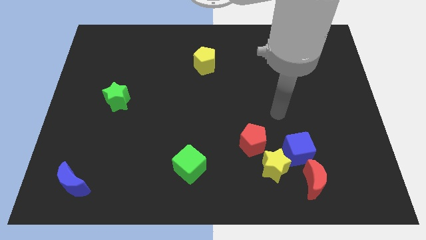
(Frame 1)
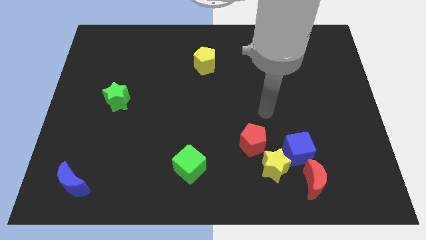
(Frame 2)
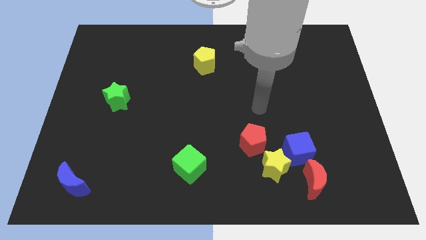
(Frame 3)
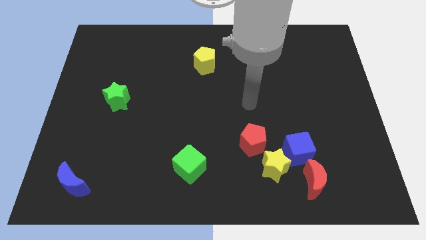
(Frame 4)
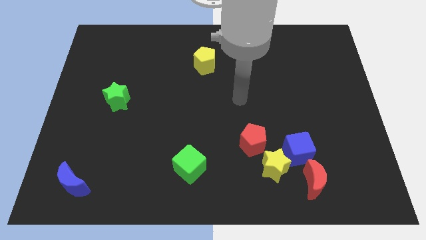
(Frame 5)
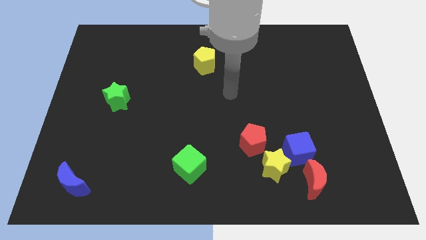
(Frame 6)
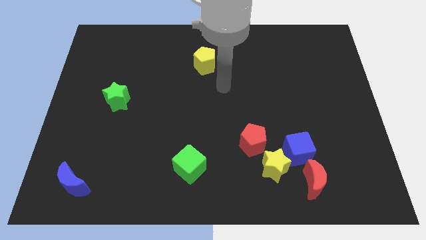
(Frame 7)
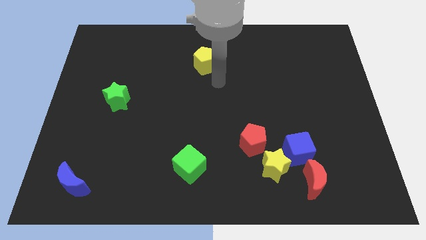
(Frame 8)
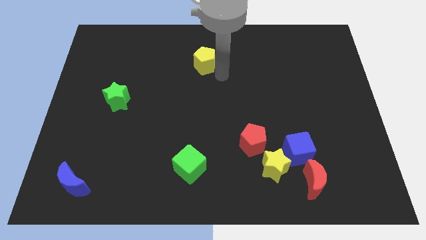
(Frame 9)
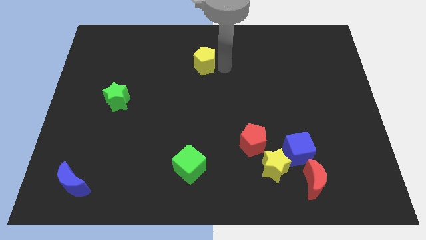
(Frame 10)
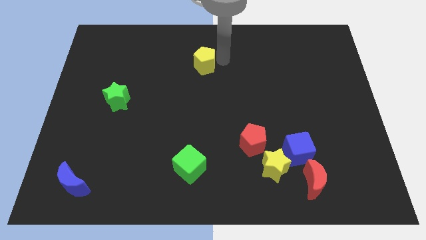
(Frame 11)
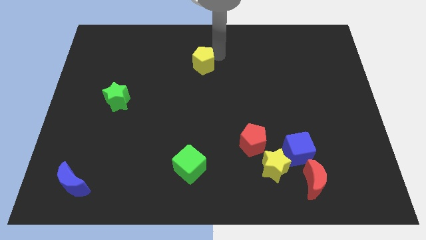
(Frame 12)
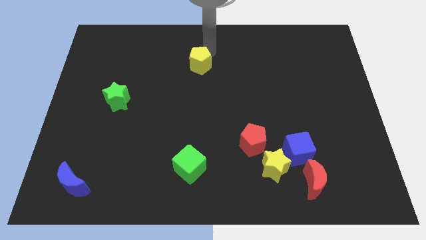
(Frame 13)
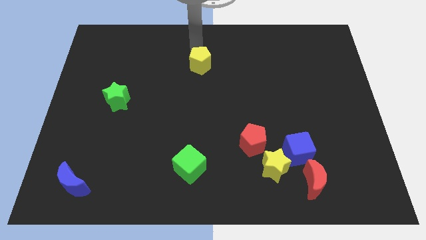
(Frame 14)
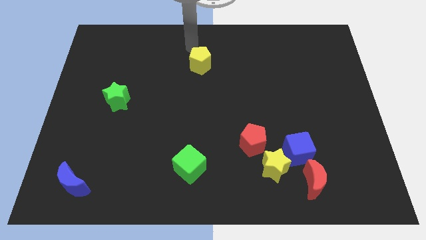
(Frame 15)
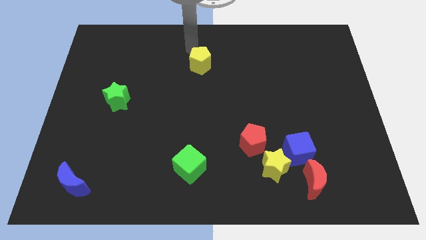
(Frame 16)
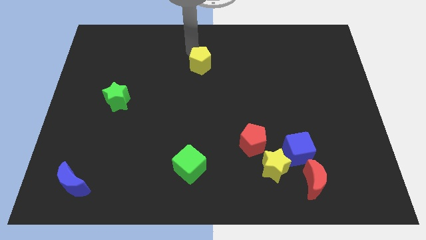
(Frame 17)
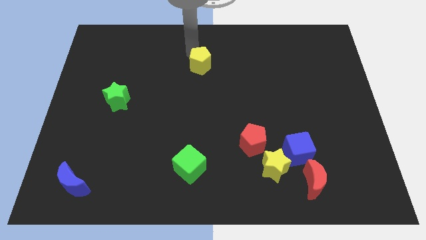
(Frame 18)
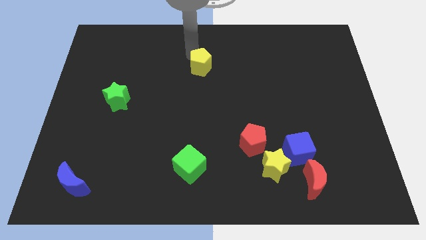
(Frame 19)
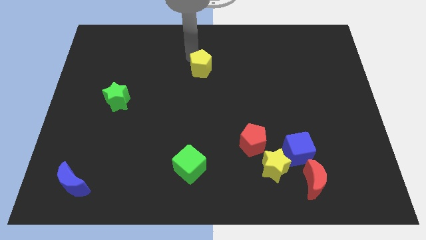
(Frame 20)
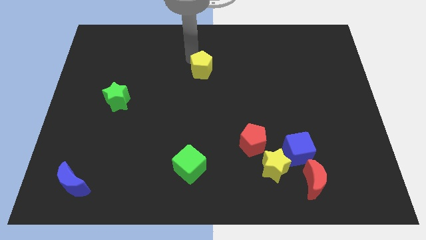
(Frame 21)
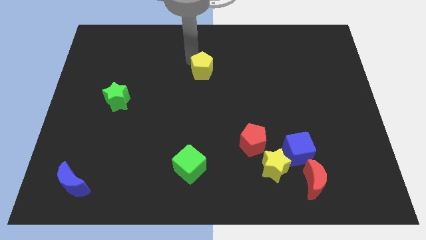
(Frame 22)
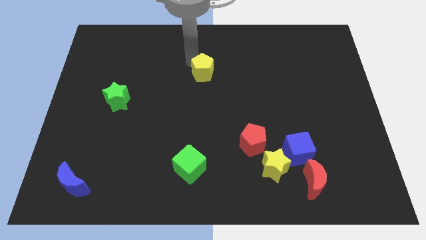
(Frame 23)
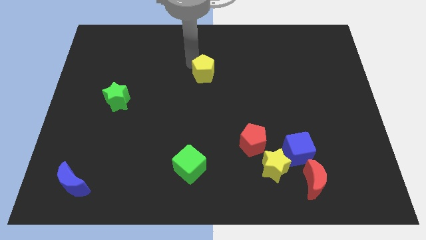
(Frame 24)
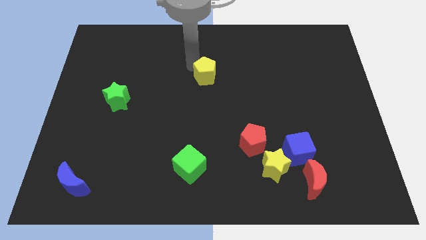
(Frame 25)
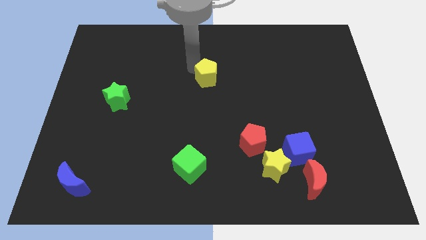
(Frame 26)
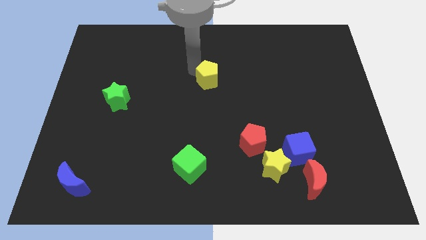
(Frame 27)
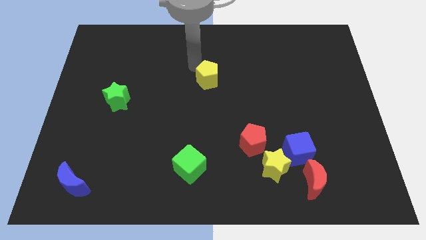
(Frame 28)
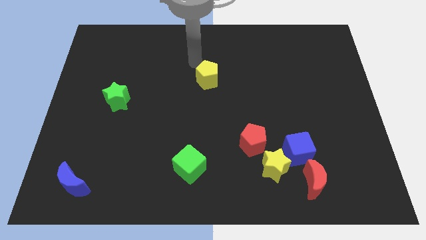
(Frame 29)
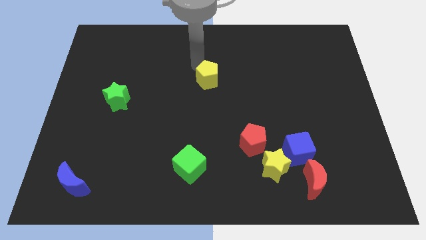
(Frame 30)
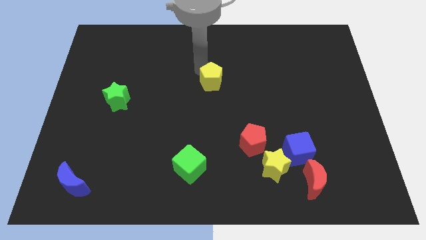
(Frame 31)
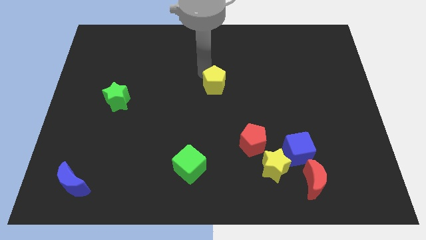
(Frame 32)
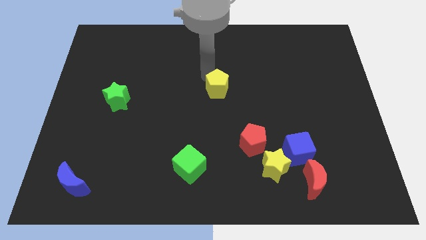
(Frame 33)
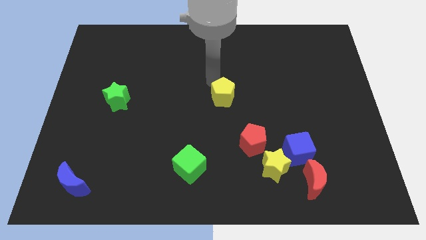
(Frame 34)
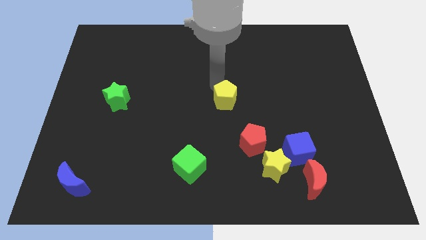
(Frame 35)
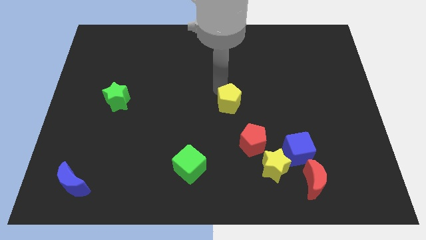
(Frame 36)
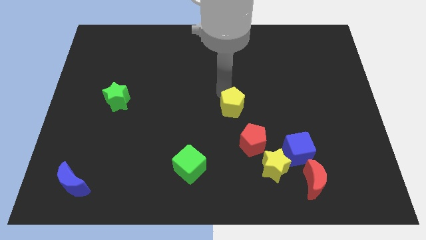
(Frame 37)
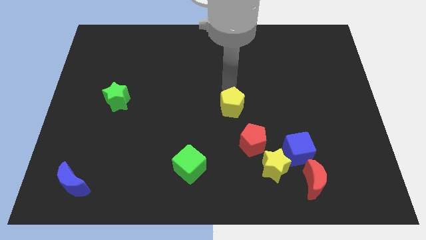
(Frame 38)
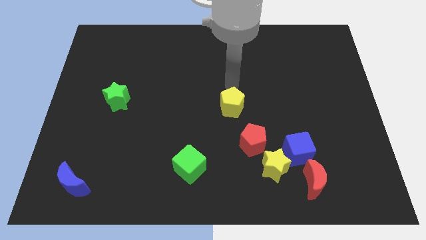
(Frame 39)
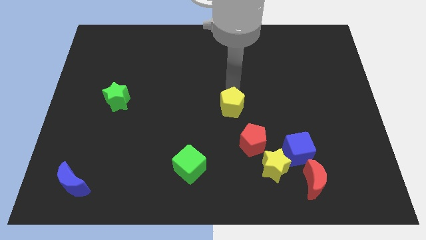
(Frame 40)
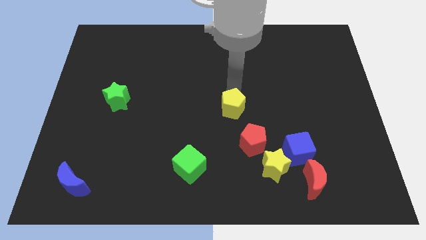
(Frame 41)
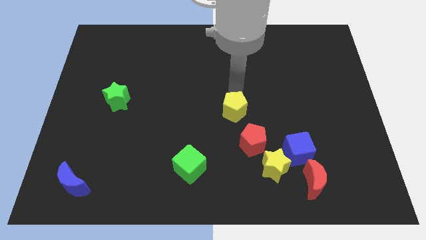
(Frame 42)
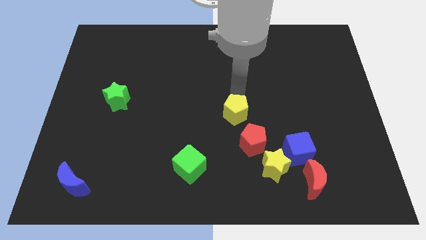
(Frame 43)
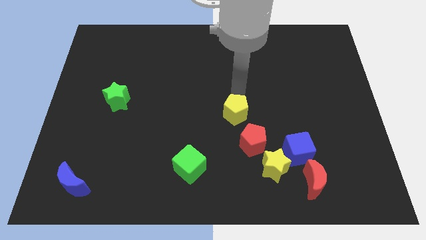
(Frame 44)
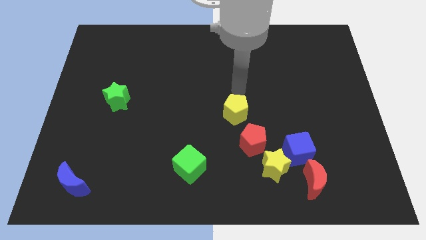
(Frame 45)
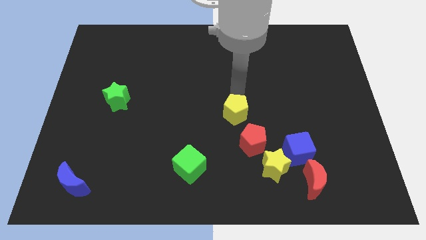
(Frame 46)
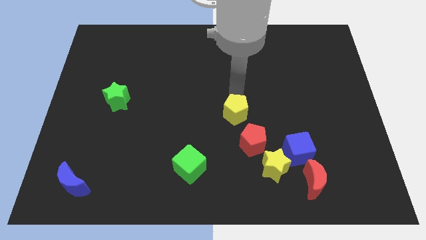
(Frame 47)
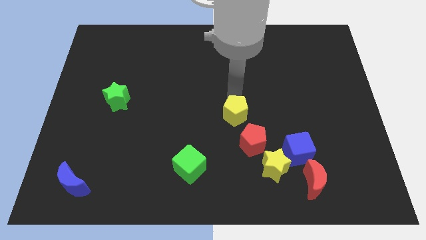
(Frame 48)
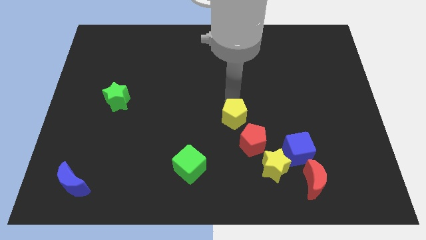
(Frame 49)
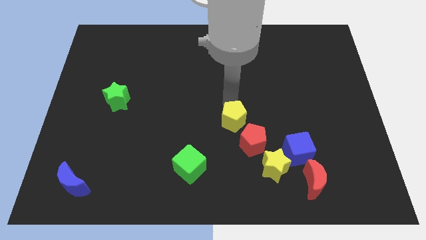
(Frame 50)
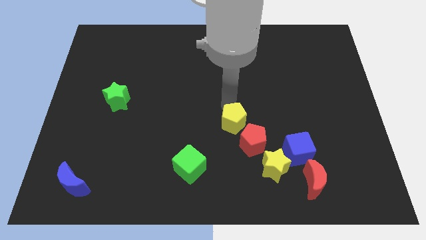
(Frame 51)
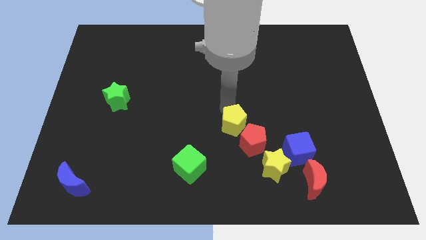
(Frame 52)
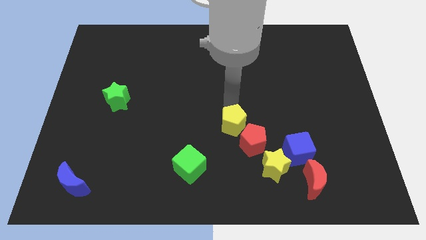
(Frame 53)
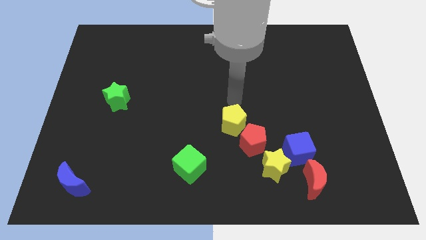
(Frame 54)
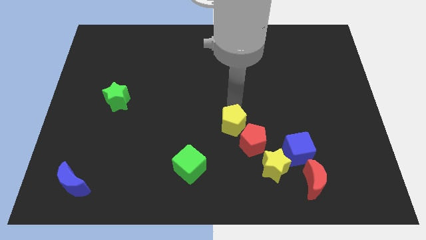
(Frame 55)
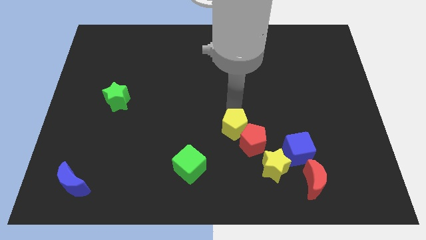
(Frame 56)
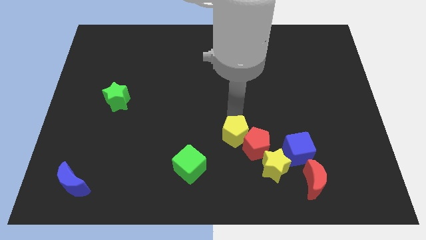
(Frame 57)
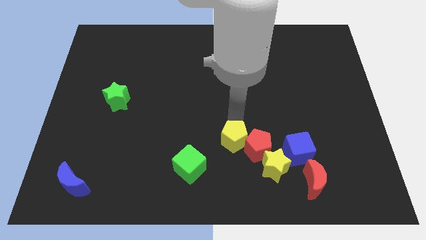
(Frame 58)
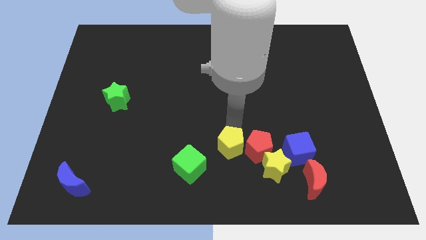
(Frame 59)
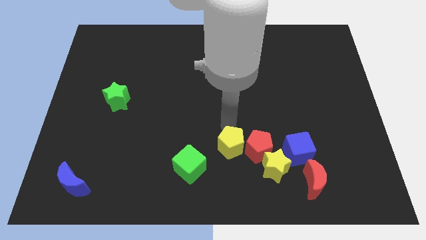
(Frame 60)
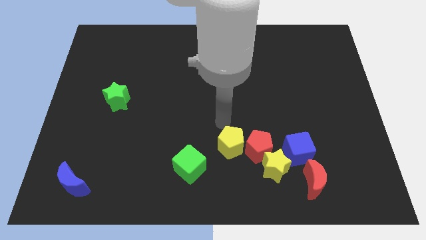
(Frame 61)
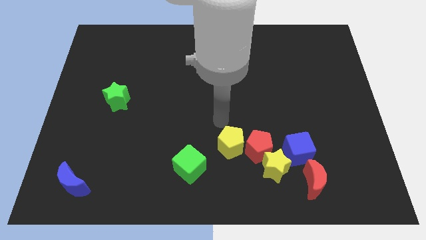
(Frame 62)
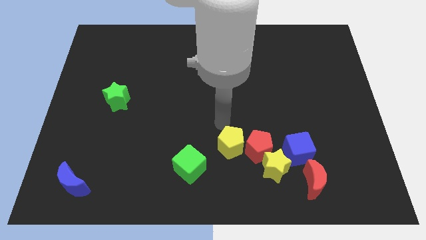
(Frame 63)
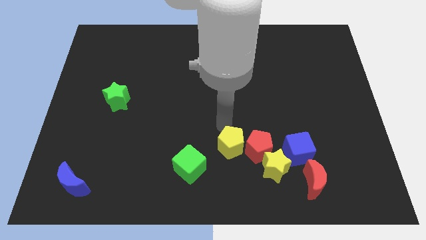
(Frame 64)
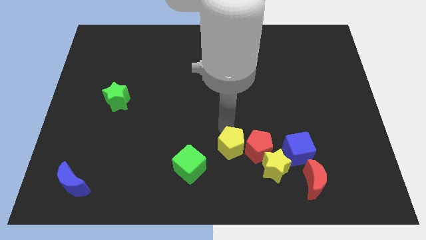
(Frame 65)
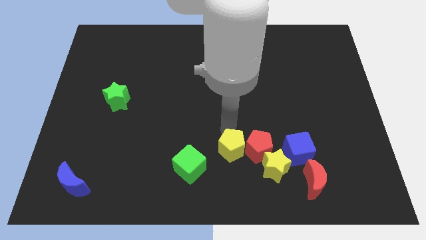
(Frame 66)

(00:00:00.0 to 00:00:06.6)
move the yellow pentagon just right of the green cube
